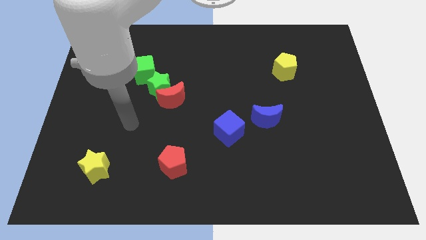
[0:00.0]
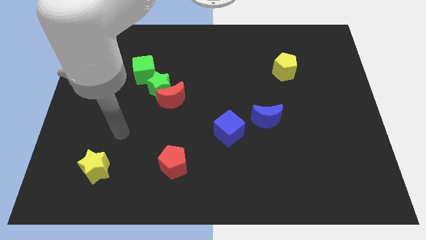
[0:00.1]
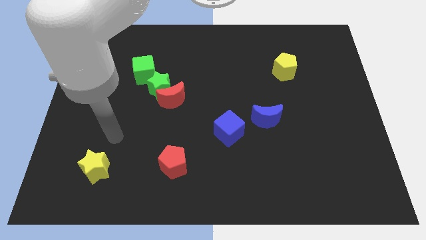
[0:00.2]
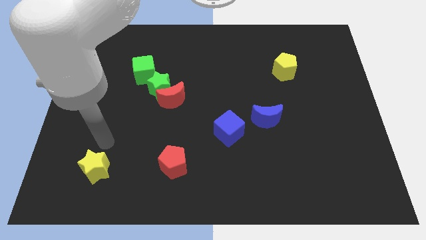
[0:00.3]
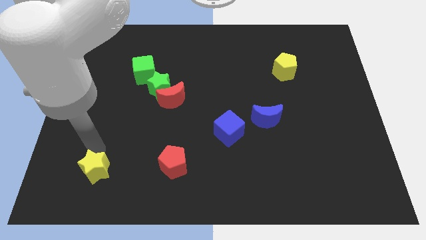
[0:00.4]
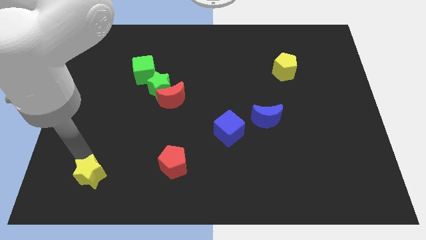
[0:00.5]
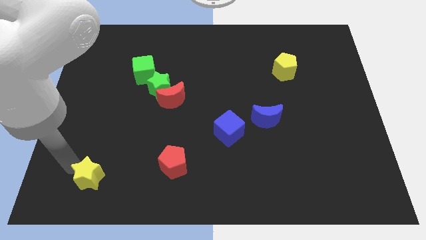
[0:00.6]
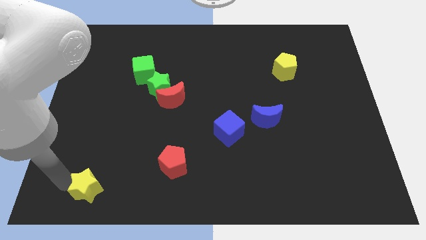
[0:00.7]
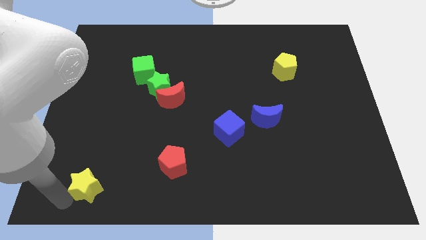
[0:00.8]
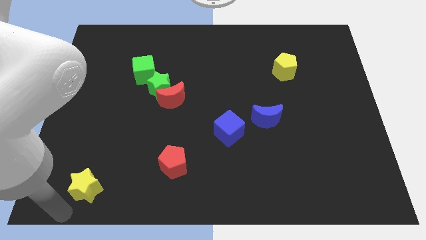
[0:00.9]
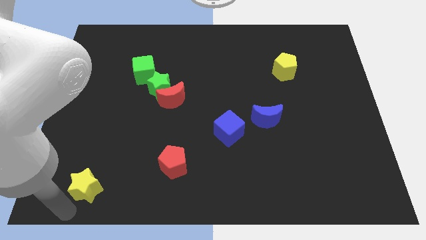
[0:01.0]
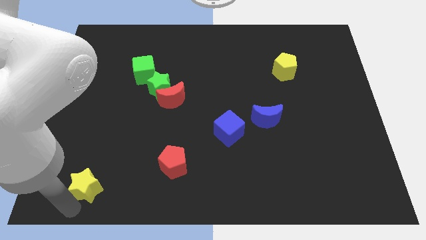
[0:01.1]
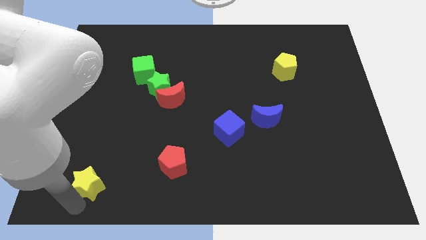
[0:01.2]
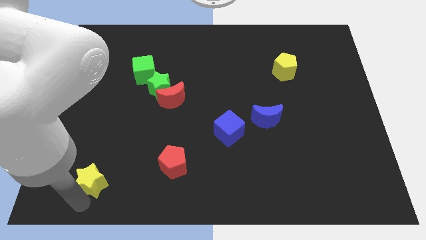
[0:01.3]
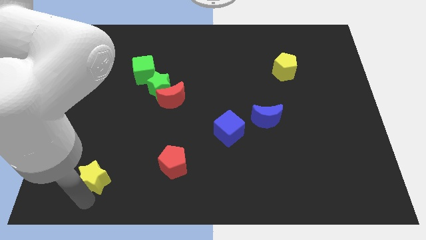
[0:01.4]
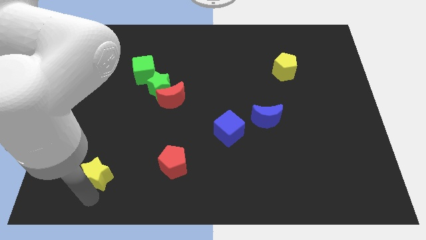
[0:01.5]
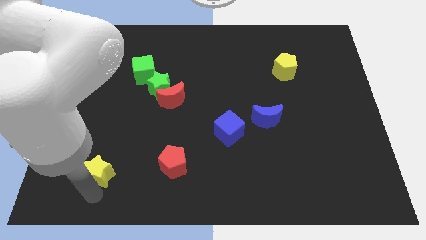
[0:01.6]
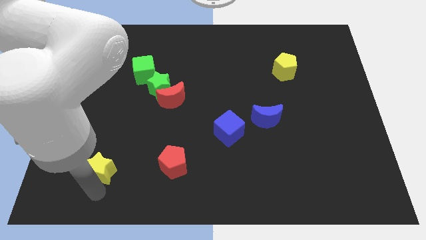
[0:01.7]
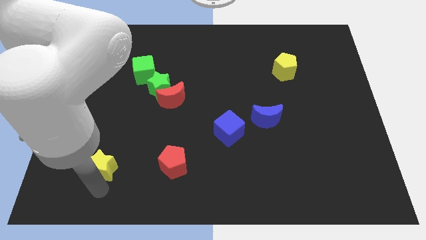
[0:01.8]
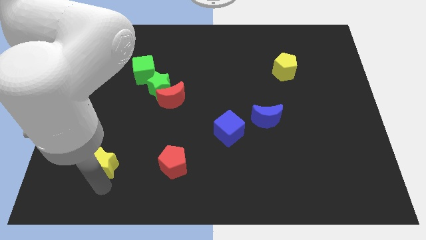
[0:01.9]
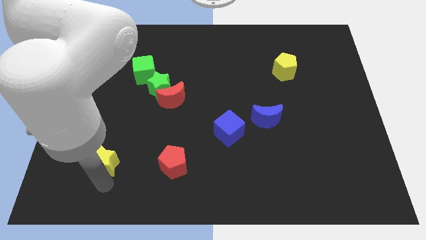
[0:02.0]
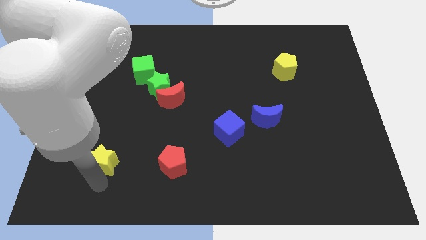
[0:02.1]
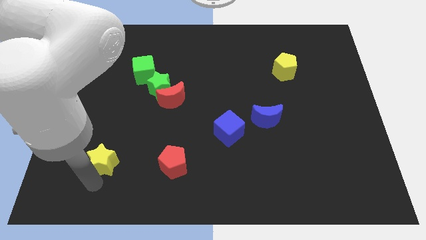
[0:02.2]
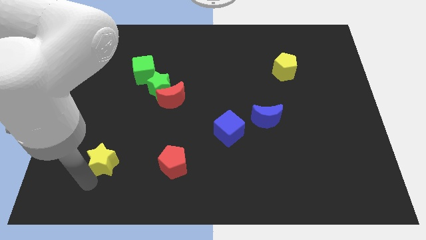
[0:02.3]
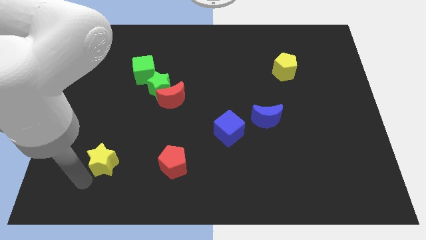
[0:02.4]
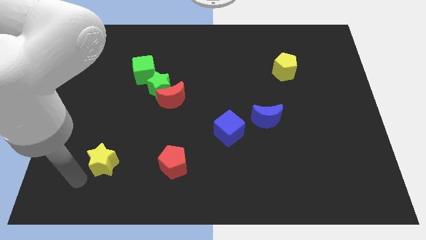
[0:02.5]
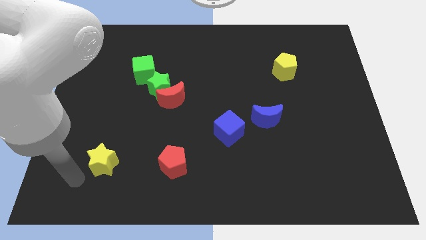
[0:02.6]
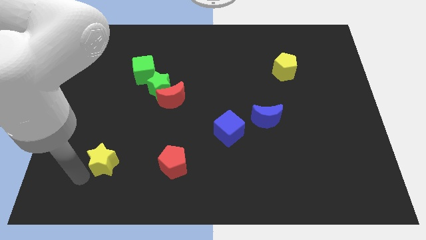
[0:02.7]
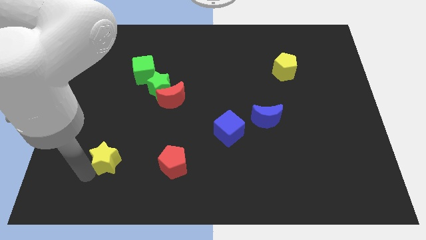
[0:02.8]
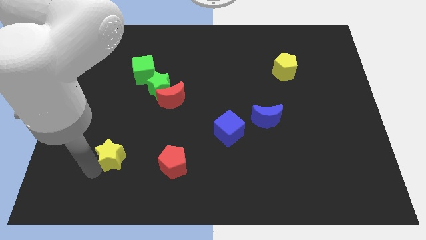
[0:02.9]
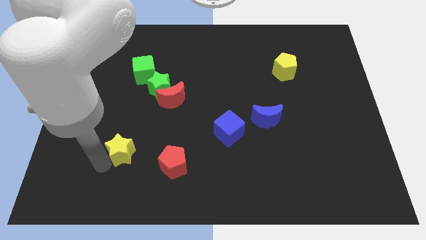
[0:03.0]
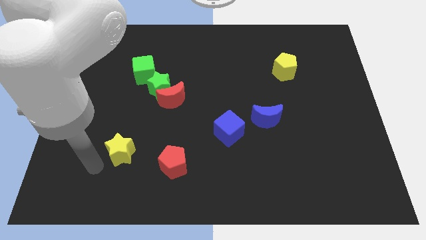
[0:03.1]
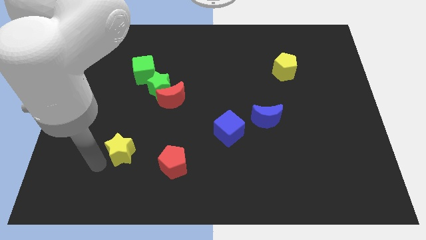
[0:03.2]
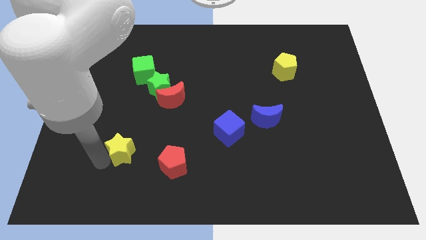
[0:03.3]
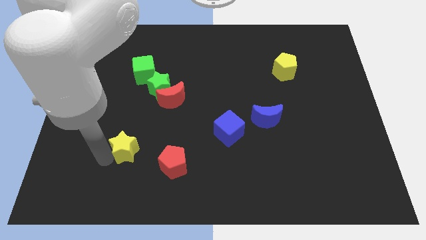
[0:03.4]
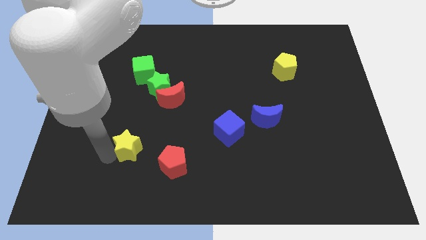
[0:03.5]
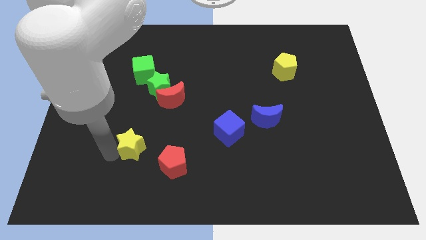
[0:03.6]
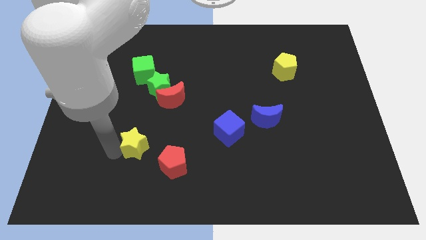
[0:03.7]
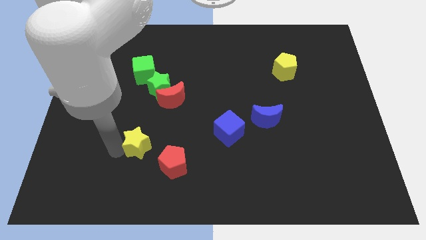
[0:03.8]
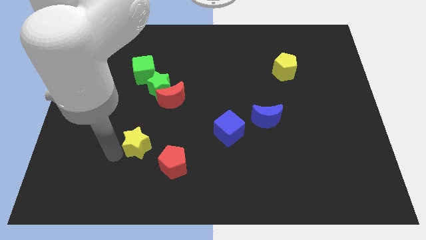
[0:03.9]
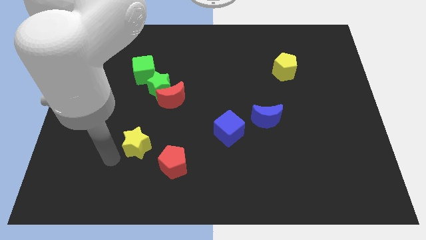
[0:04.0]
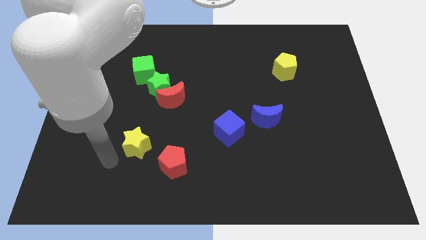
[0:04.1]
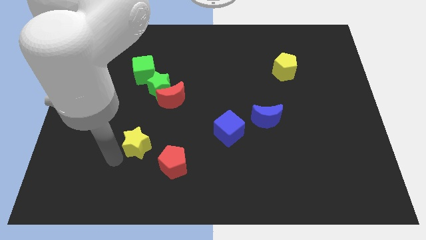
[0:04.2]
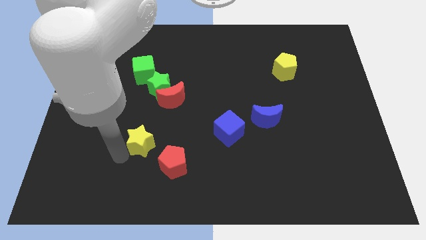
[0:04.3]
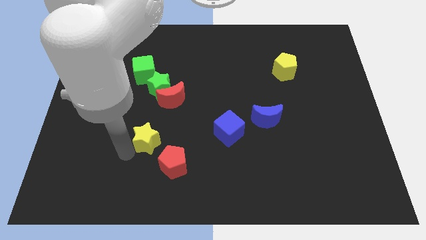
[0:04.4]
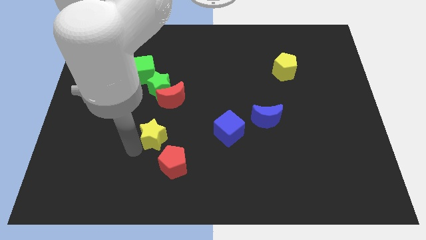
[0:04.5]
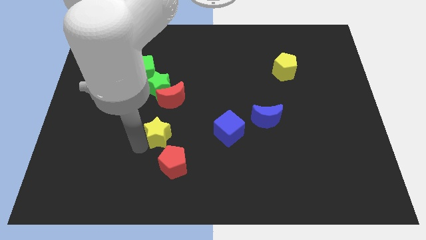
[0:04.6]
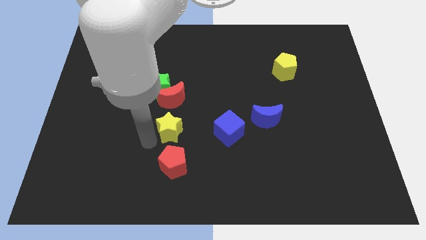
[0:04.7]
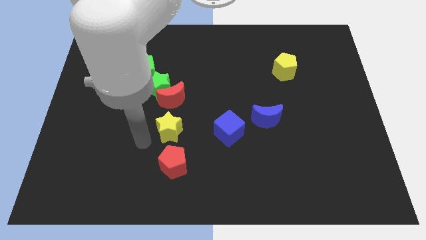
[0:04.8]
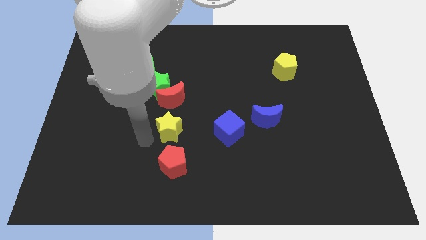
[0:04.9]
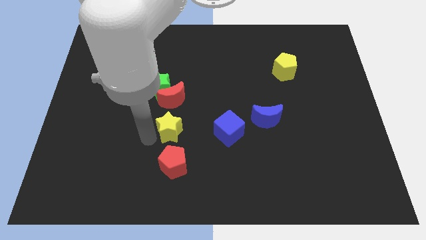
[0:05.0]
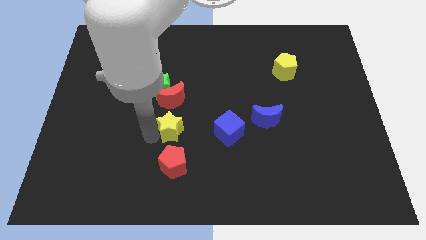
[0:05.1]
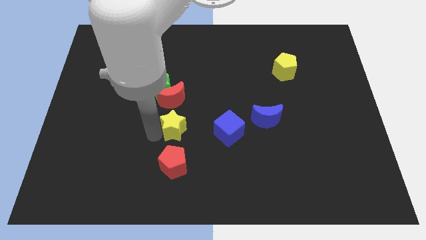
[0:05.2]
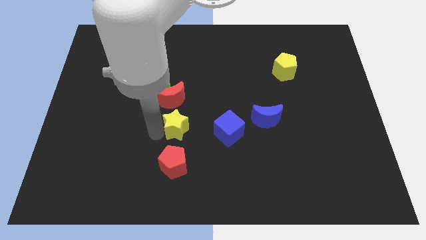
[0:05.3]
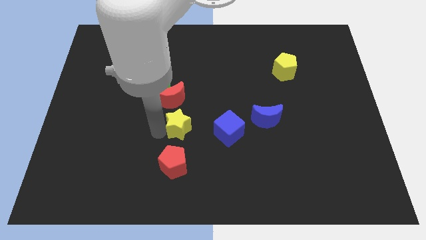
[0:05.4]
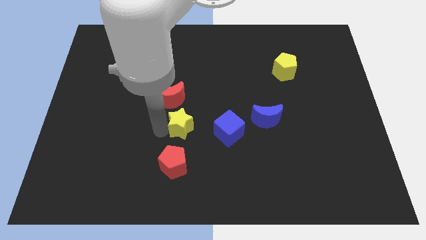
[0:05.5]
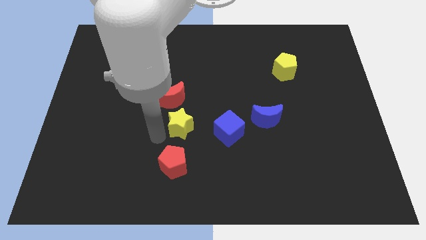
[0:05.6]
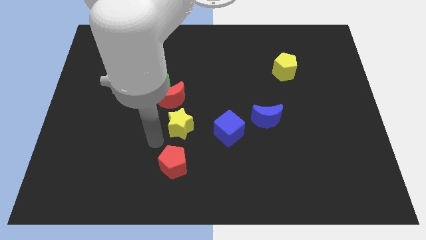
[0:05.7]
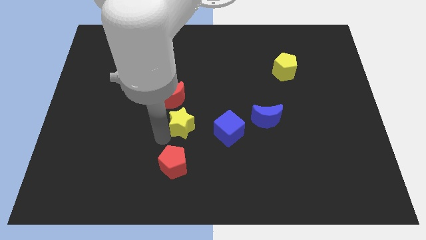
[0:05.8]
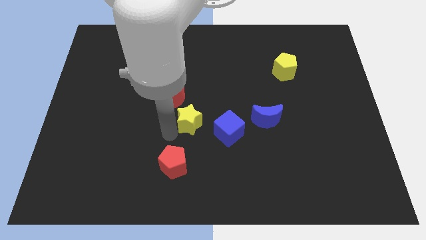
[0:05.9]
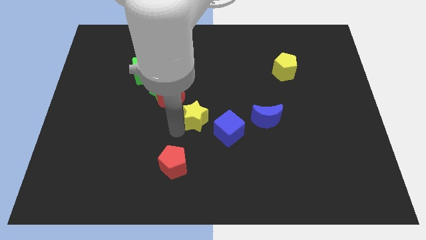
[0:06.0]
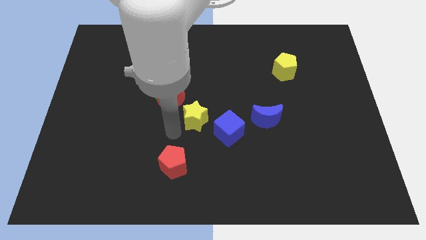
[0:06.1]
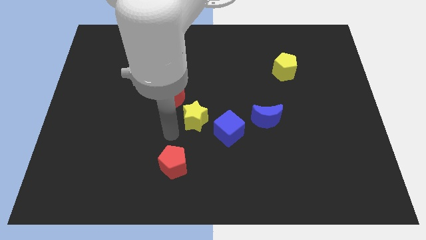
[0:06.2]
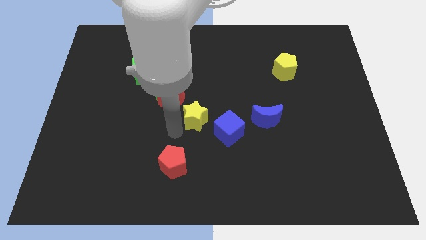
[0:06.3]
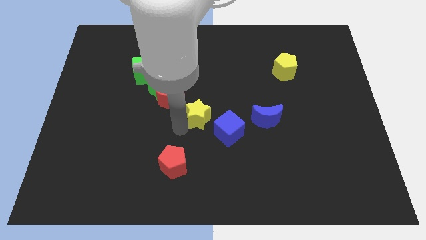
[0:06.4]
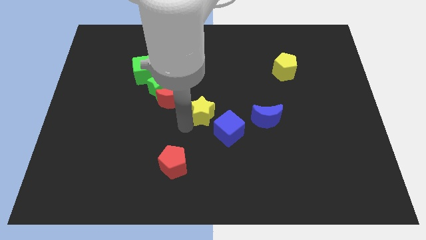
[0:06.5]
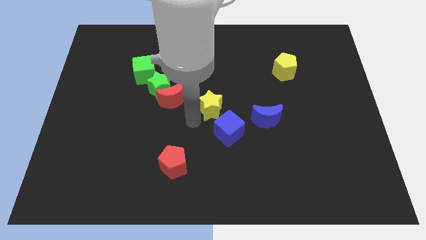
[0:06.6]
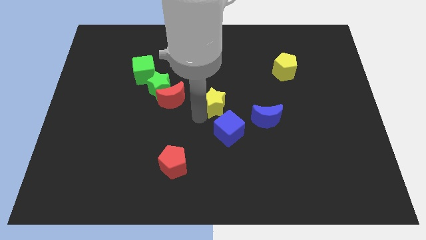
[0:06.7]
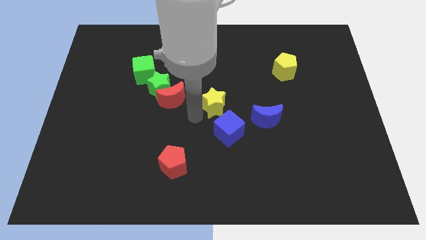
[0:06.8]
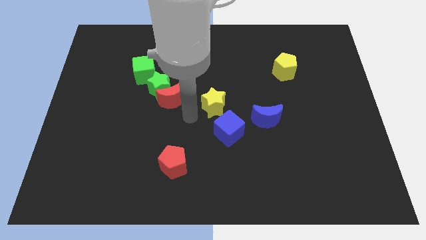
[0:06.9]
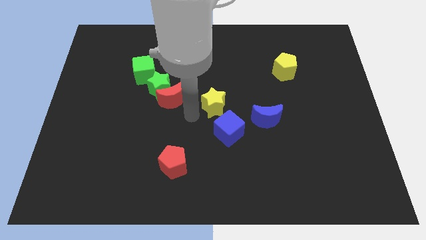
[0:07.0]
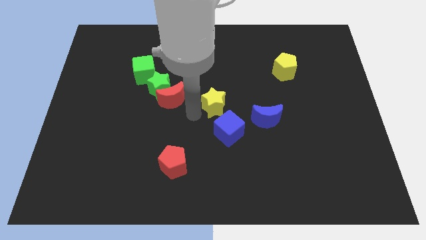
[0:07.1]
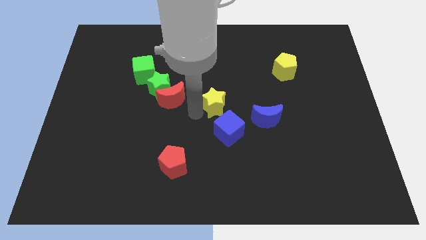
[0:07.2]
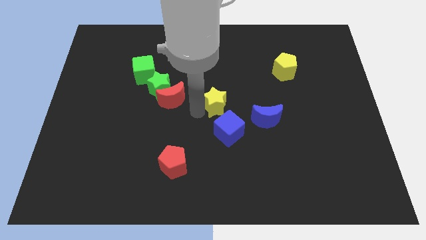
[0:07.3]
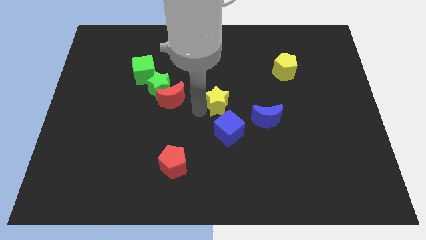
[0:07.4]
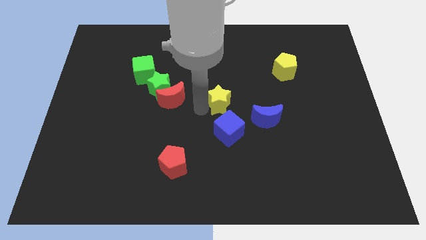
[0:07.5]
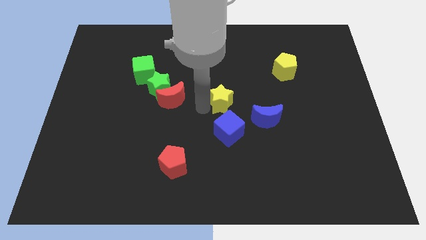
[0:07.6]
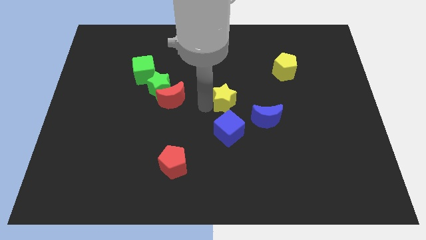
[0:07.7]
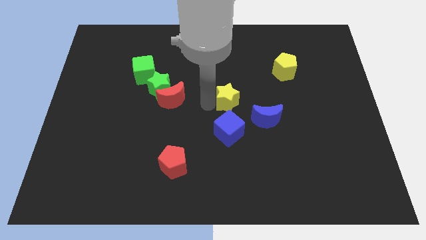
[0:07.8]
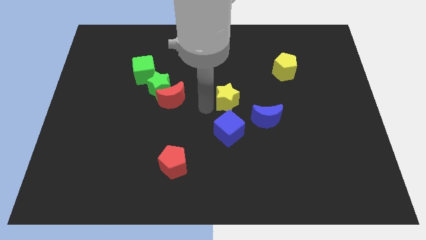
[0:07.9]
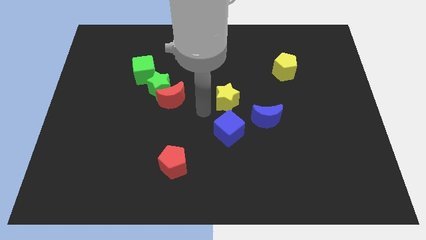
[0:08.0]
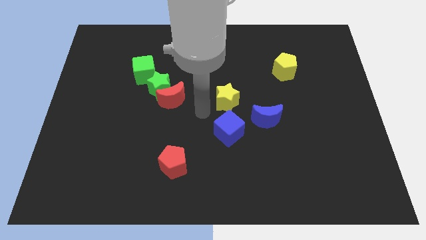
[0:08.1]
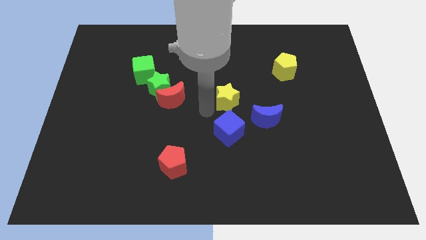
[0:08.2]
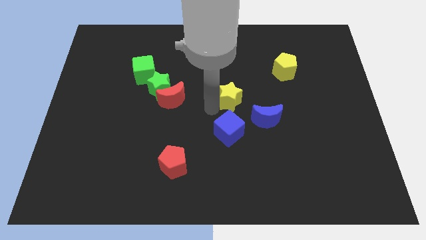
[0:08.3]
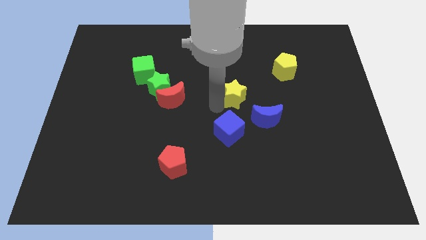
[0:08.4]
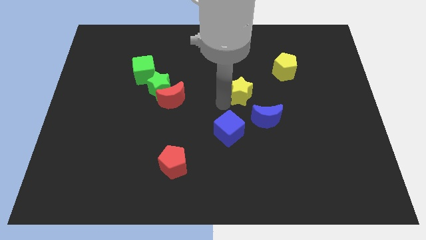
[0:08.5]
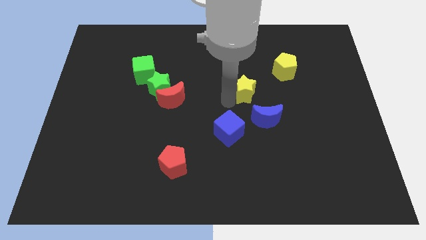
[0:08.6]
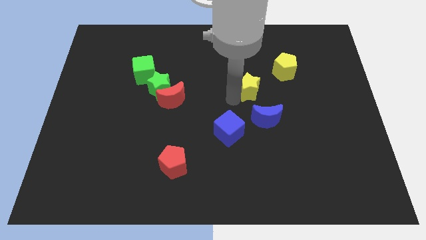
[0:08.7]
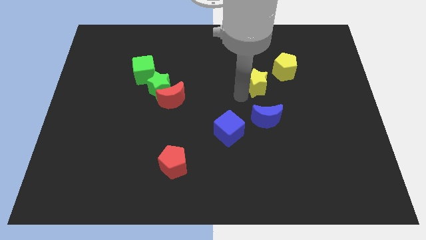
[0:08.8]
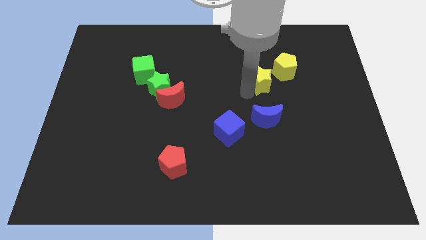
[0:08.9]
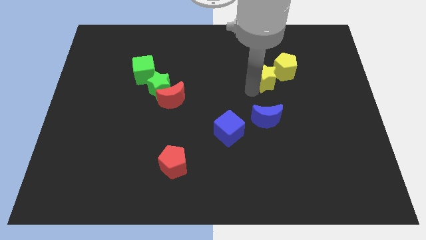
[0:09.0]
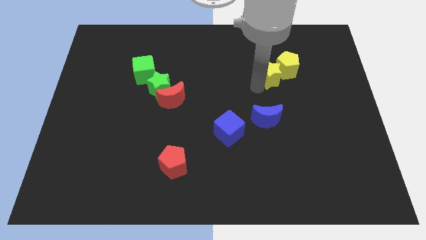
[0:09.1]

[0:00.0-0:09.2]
put the yellow star next to the yellow pentagon
